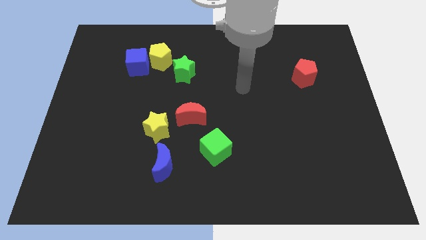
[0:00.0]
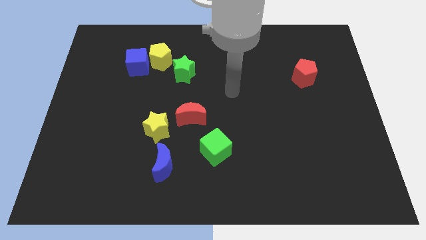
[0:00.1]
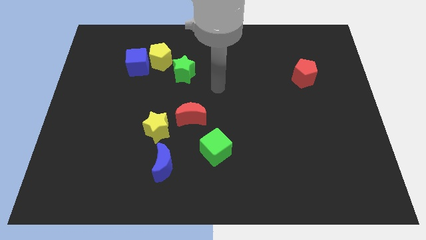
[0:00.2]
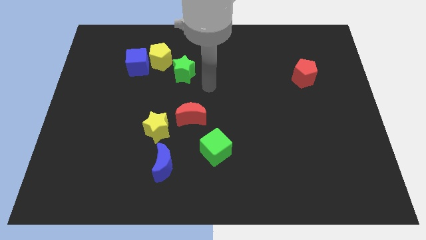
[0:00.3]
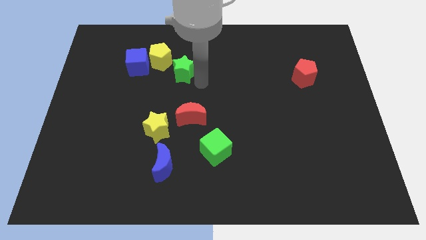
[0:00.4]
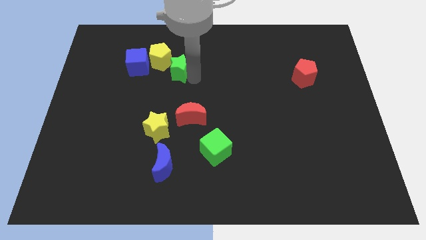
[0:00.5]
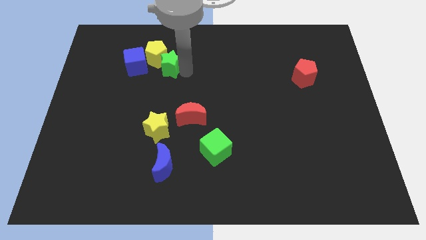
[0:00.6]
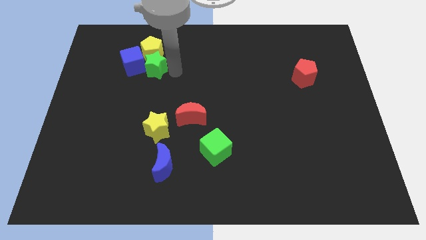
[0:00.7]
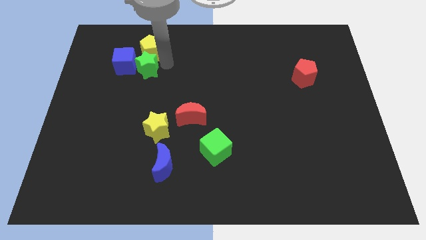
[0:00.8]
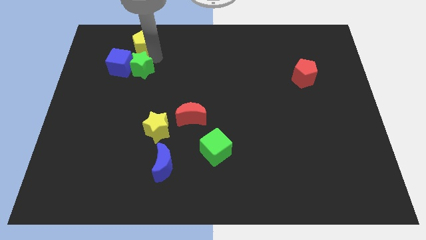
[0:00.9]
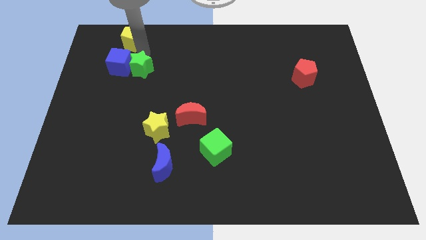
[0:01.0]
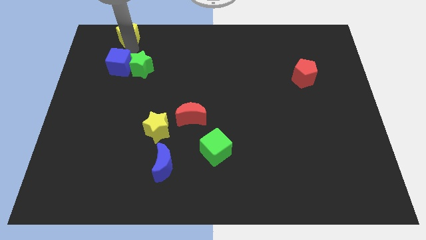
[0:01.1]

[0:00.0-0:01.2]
separate the blue cube from the yellow pentagon

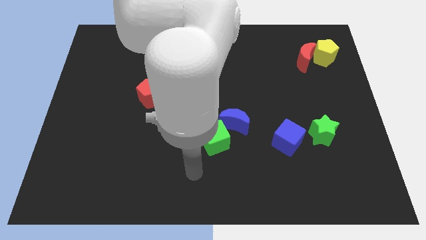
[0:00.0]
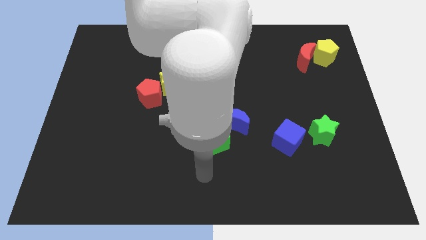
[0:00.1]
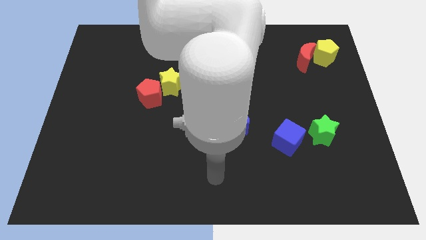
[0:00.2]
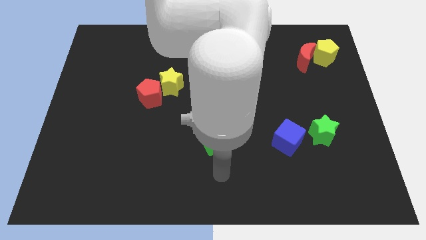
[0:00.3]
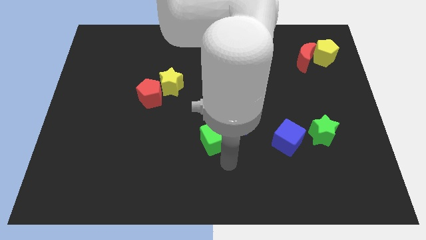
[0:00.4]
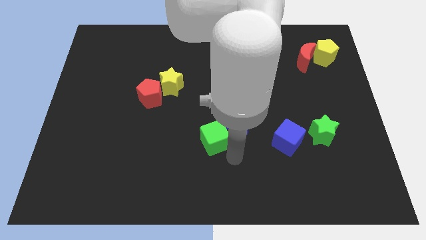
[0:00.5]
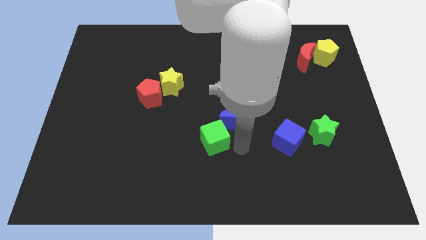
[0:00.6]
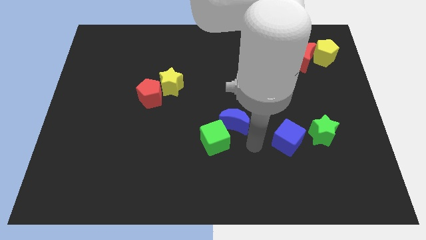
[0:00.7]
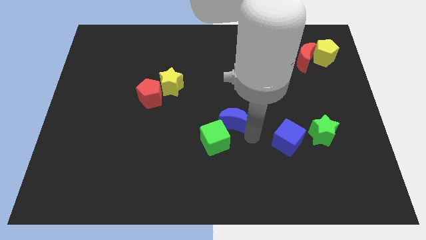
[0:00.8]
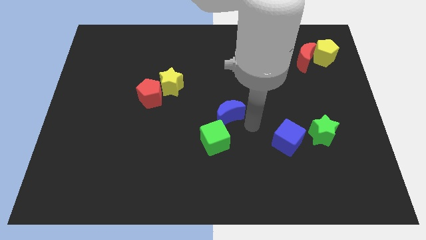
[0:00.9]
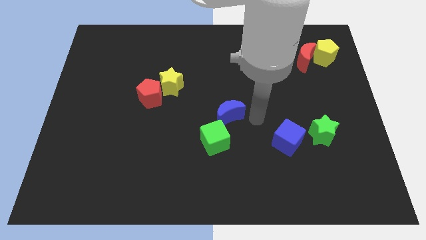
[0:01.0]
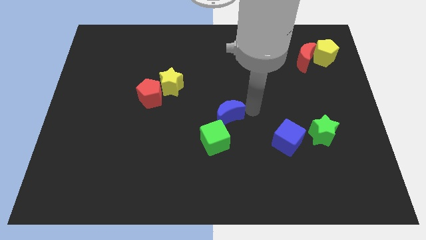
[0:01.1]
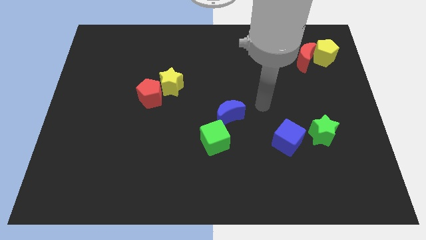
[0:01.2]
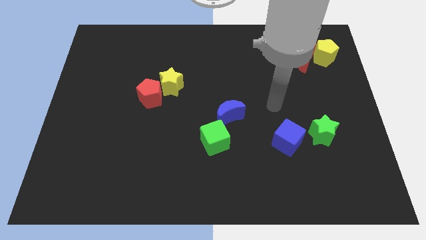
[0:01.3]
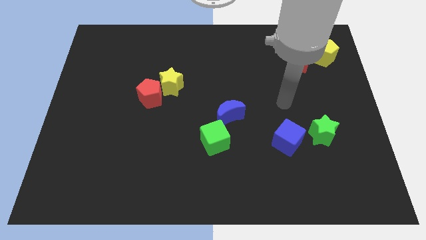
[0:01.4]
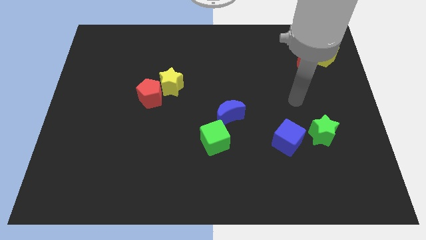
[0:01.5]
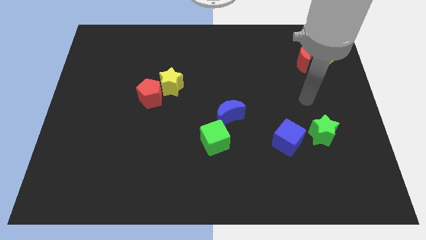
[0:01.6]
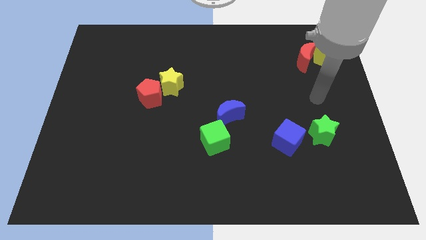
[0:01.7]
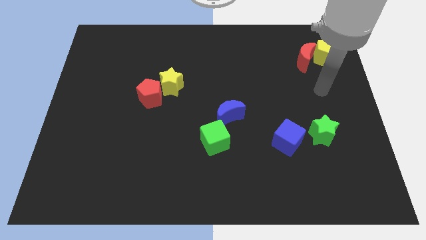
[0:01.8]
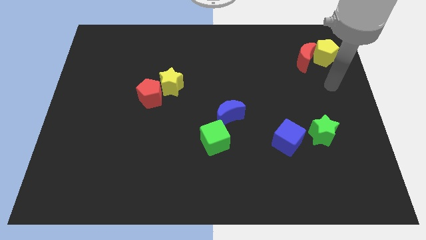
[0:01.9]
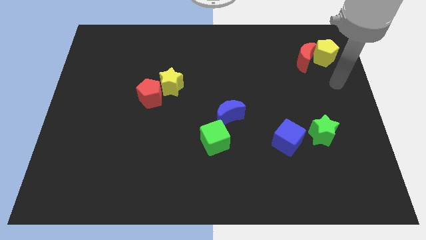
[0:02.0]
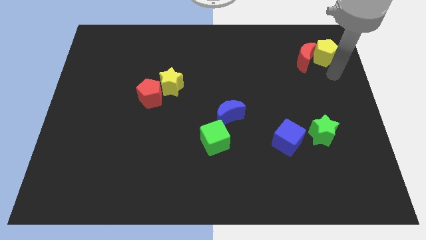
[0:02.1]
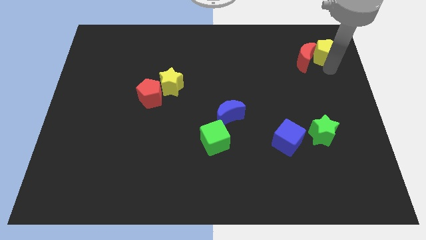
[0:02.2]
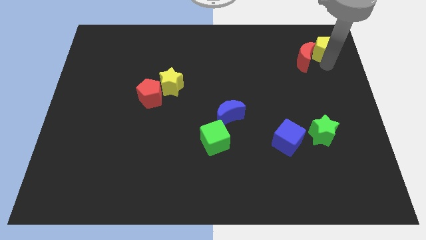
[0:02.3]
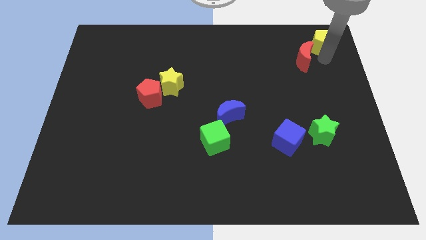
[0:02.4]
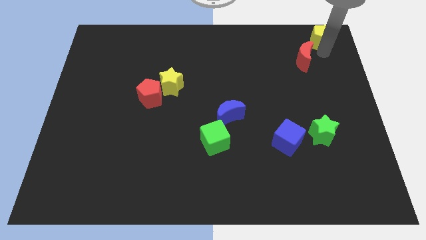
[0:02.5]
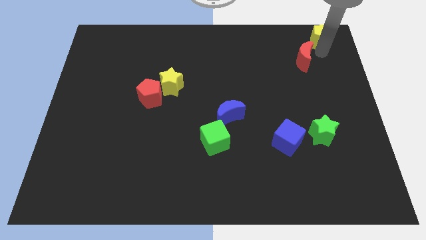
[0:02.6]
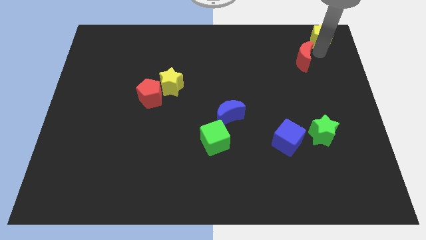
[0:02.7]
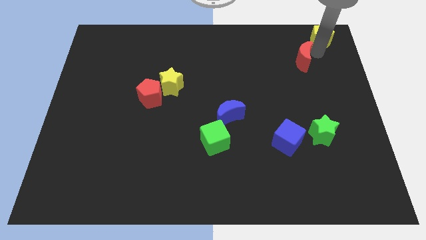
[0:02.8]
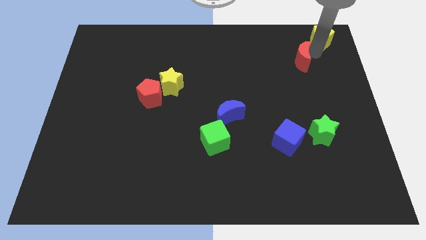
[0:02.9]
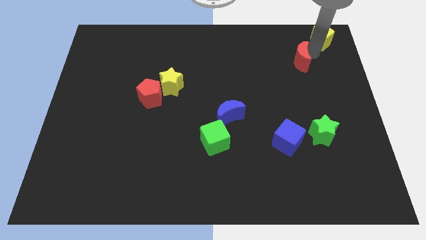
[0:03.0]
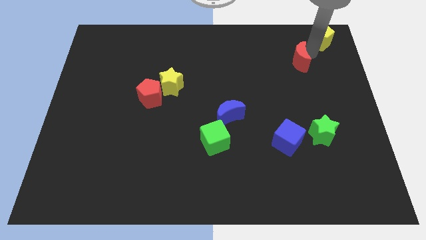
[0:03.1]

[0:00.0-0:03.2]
separate the red moon from the yellow pentagon

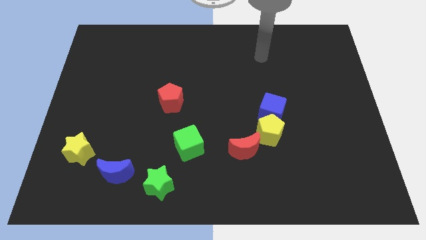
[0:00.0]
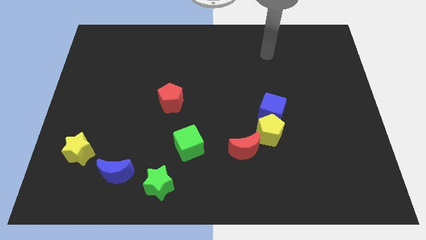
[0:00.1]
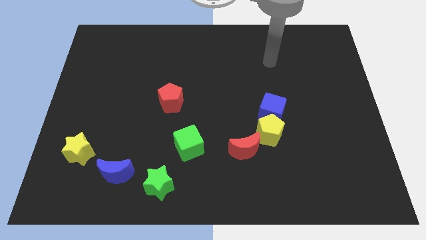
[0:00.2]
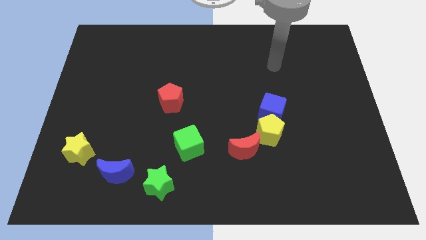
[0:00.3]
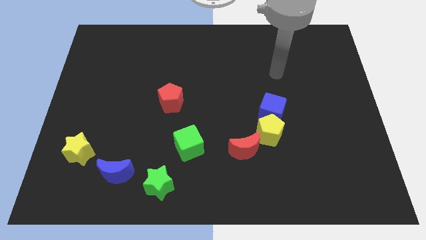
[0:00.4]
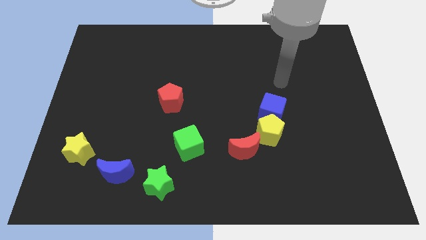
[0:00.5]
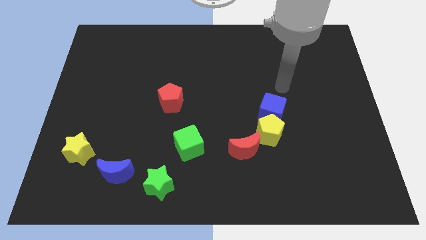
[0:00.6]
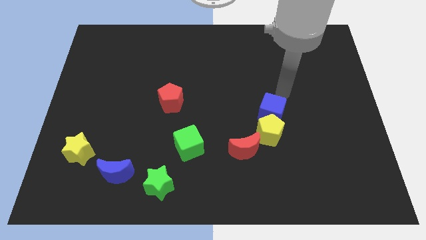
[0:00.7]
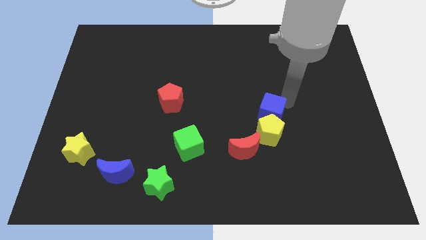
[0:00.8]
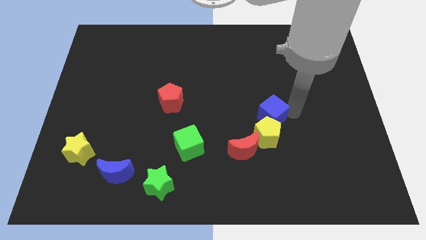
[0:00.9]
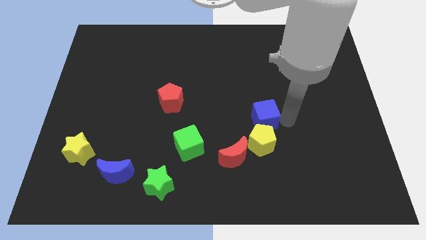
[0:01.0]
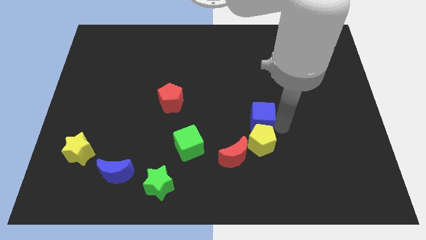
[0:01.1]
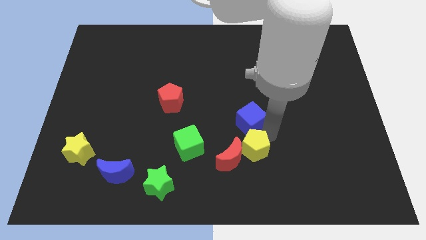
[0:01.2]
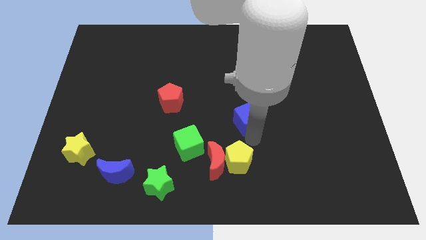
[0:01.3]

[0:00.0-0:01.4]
pull the blue cube apart from the yellow pentagon

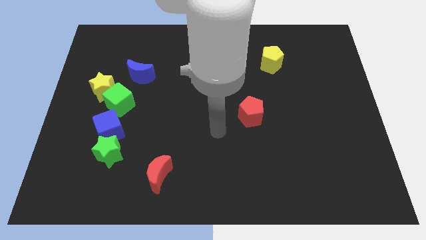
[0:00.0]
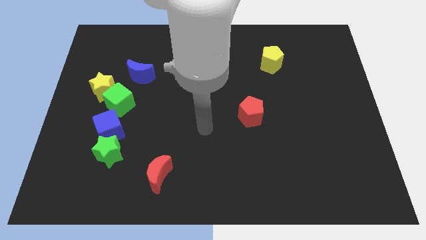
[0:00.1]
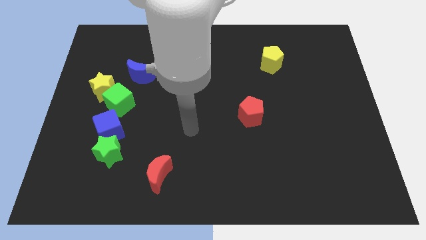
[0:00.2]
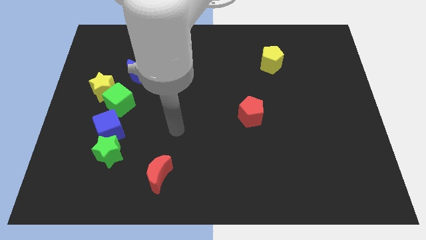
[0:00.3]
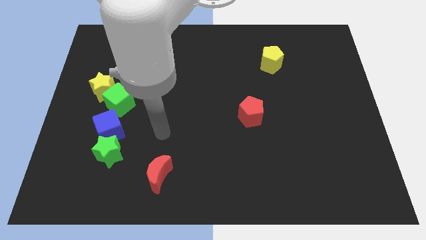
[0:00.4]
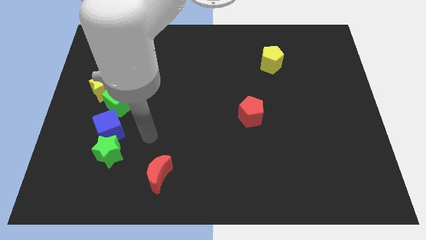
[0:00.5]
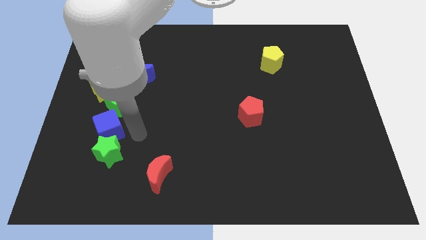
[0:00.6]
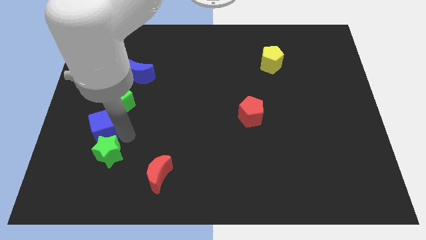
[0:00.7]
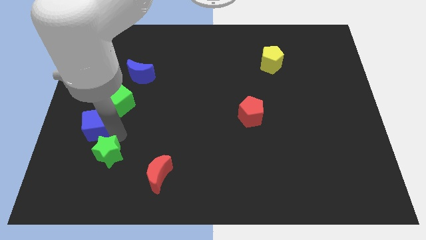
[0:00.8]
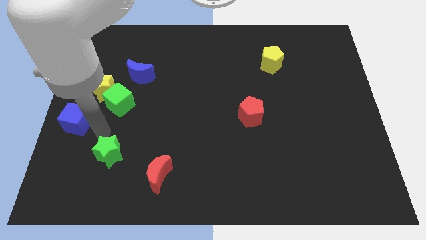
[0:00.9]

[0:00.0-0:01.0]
move the green star away from the blue cube

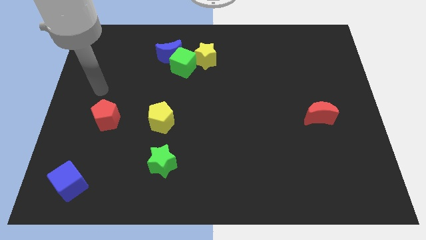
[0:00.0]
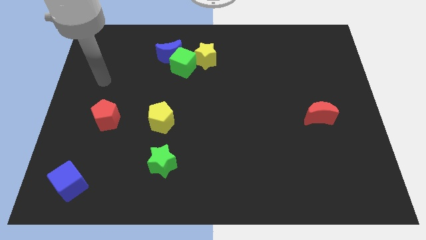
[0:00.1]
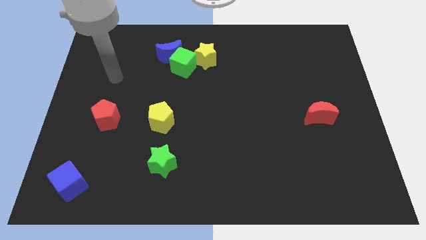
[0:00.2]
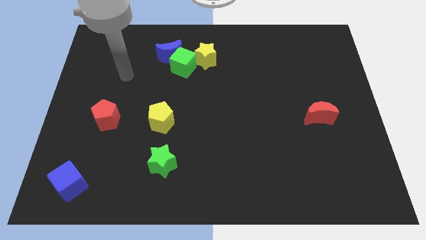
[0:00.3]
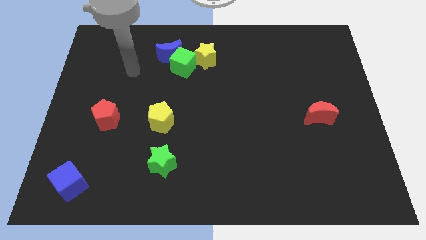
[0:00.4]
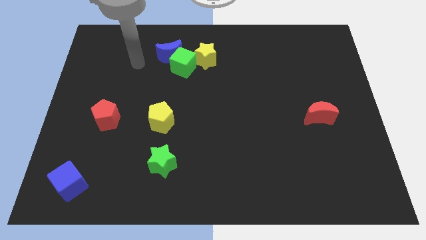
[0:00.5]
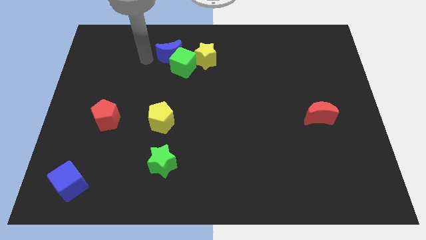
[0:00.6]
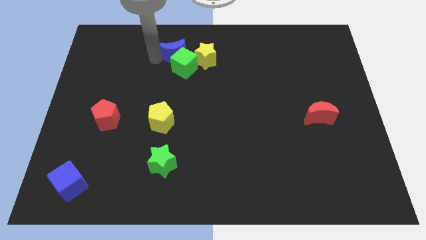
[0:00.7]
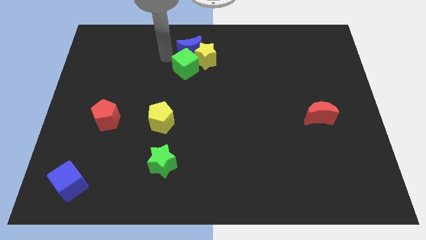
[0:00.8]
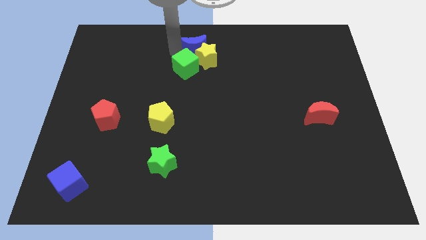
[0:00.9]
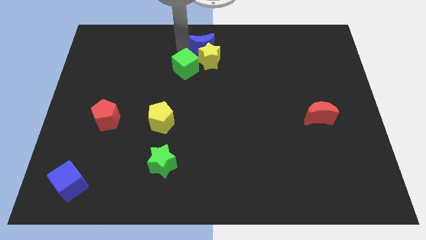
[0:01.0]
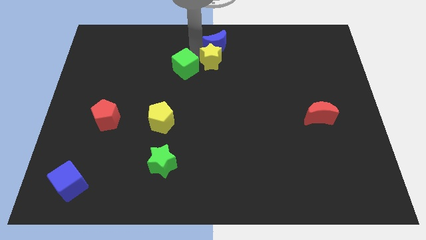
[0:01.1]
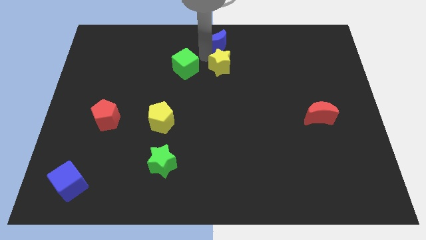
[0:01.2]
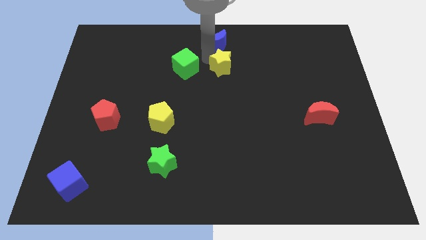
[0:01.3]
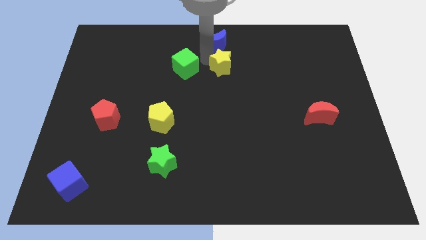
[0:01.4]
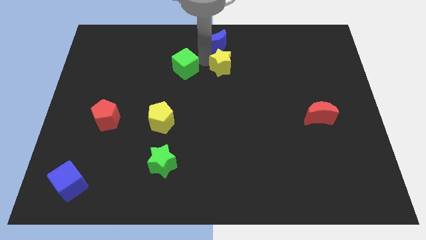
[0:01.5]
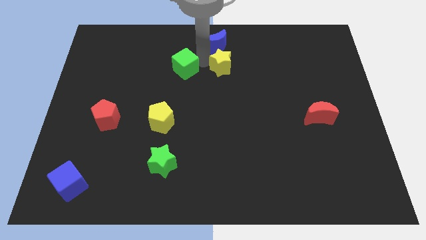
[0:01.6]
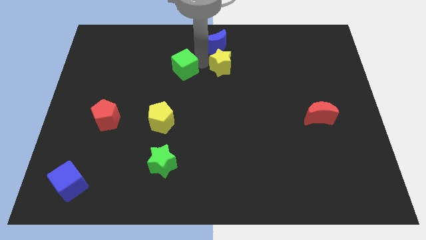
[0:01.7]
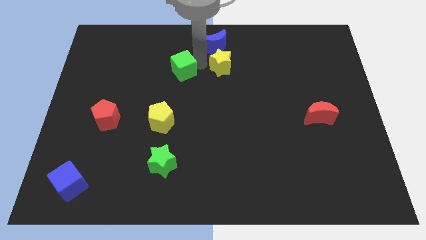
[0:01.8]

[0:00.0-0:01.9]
move the green cube away from the blue moon and yellow star

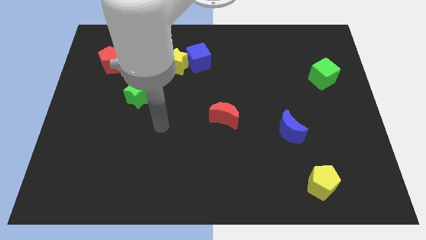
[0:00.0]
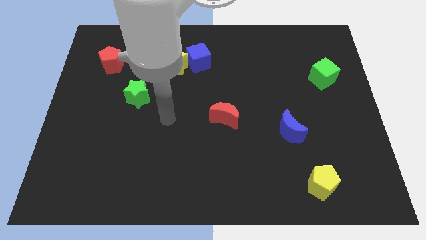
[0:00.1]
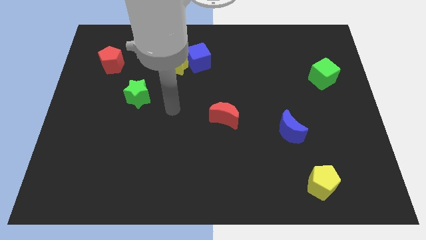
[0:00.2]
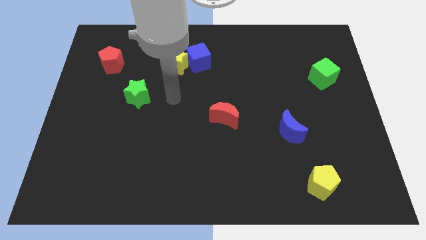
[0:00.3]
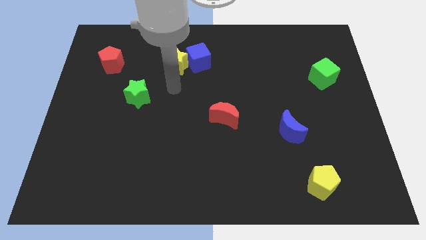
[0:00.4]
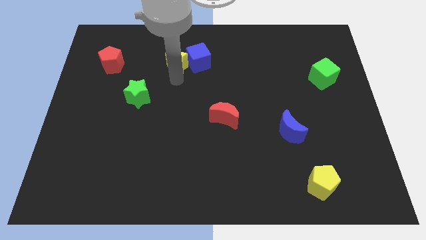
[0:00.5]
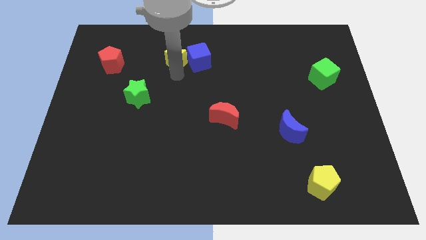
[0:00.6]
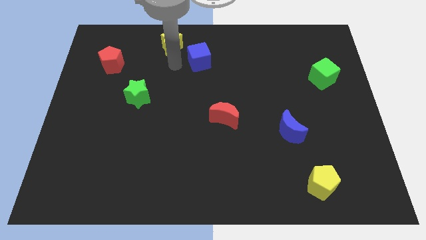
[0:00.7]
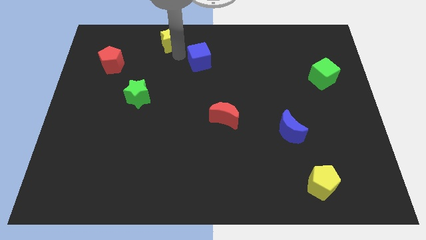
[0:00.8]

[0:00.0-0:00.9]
separate the blue cube from the yellow star
